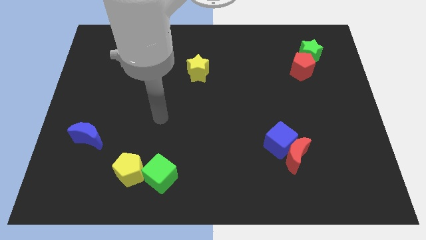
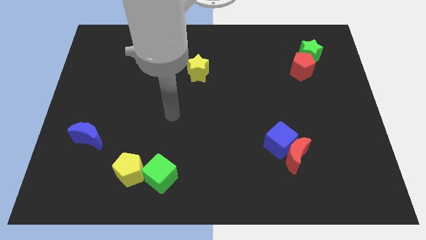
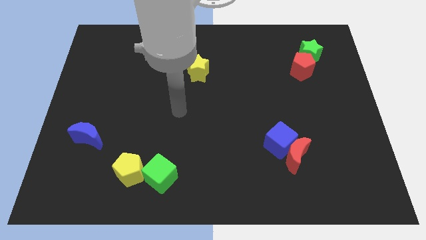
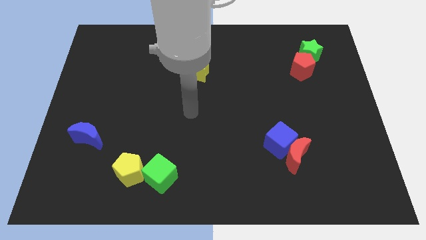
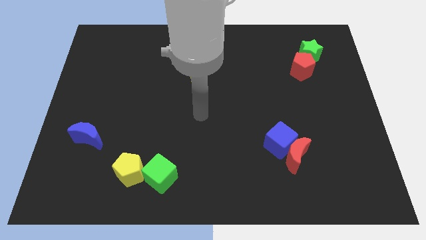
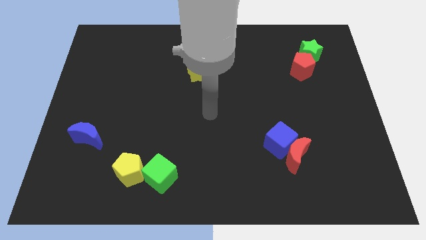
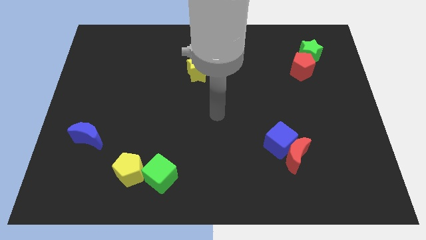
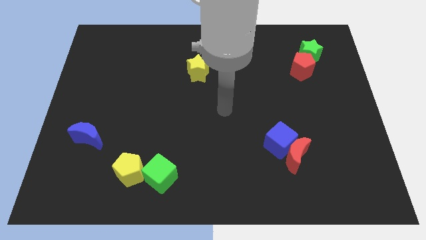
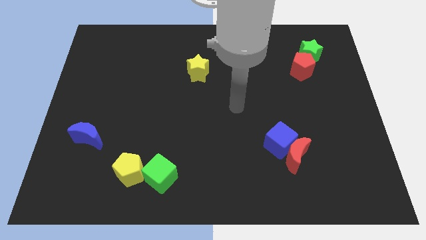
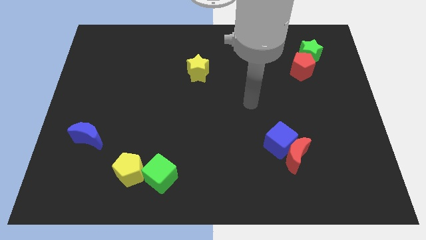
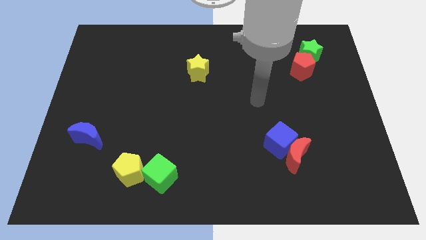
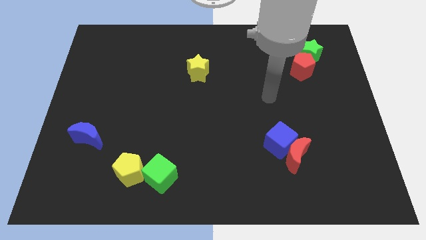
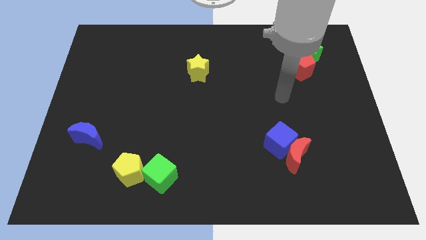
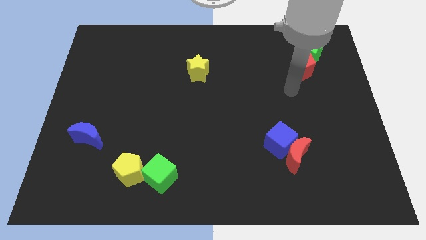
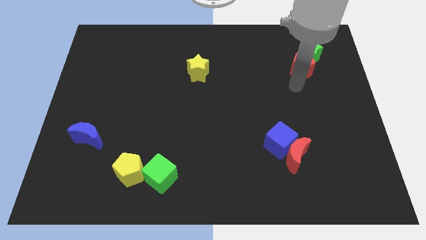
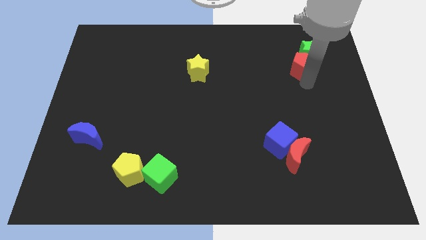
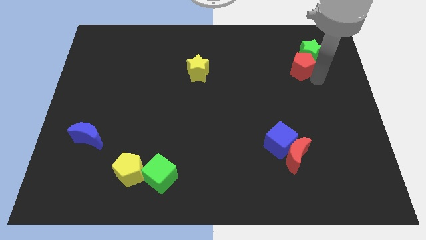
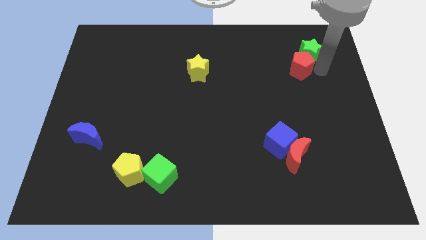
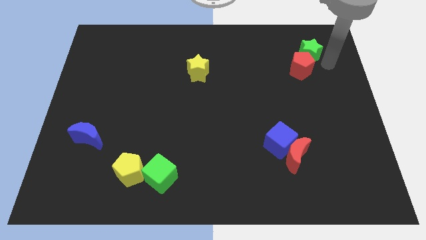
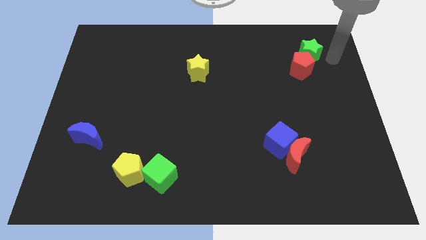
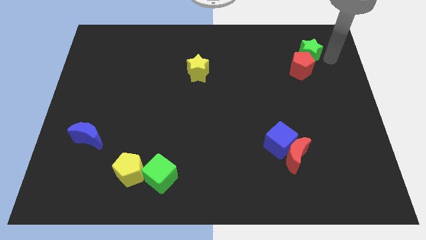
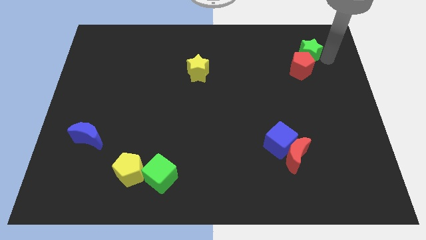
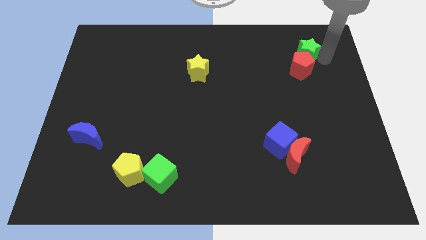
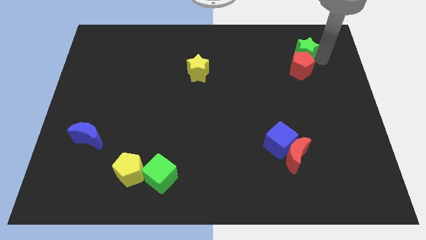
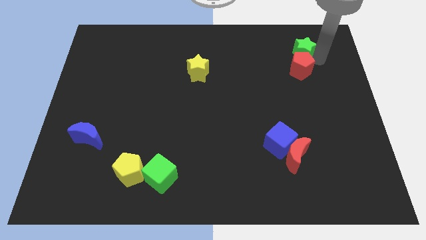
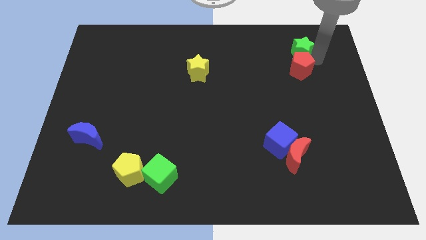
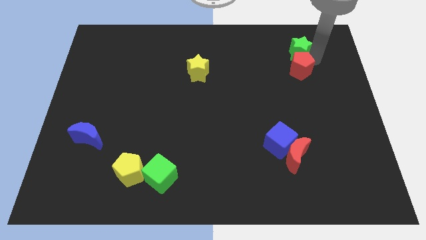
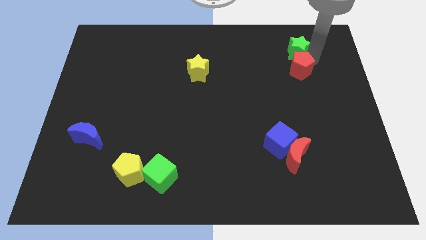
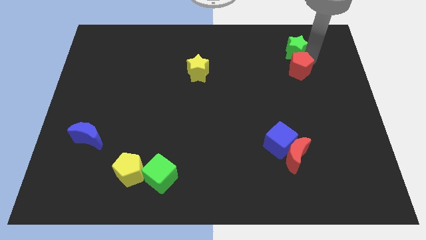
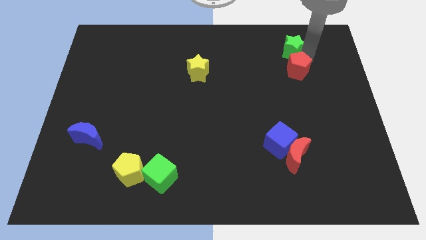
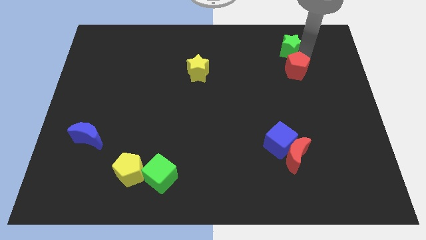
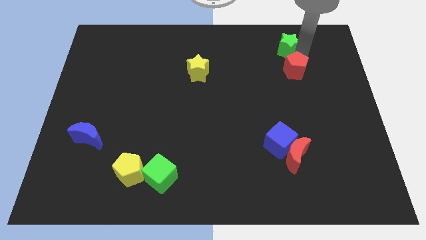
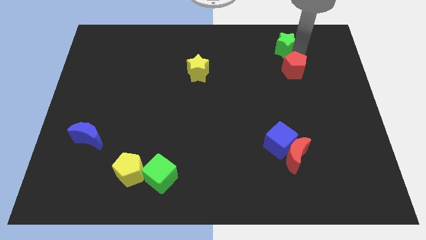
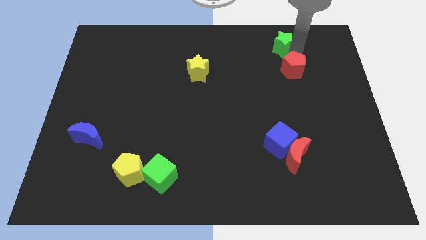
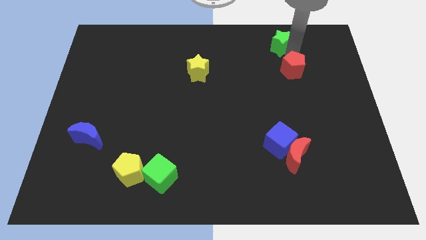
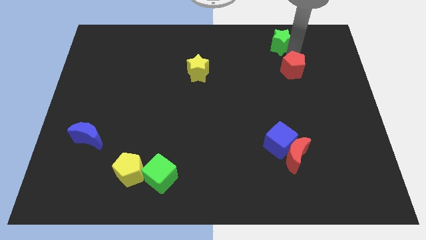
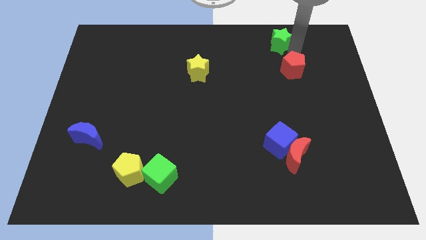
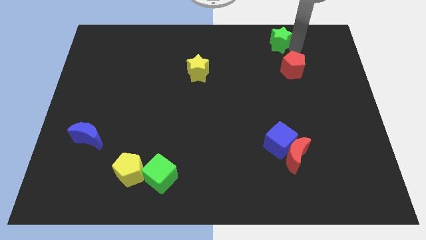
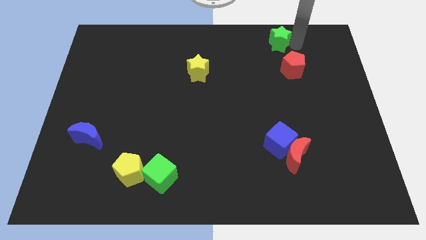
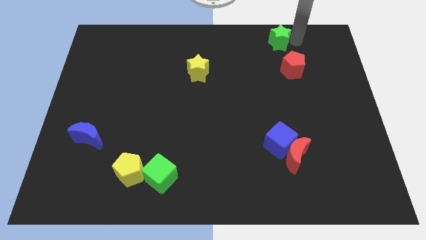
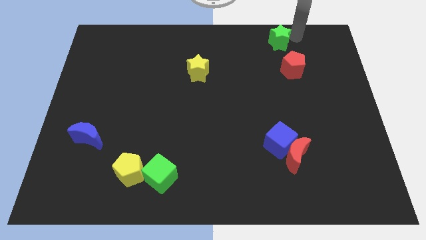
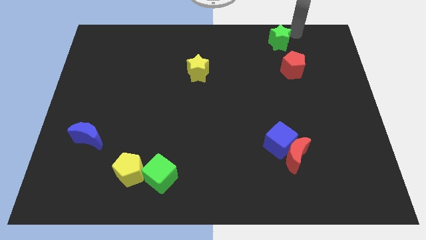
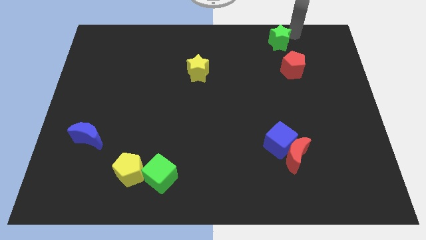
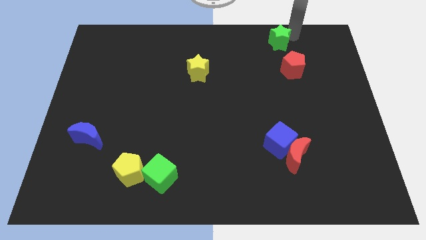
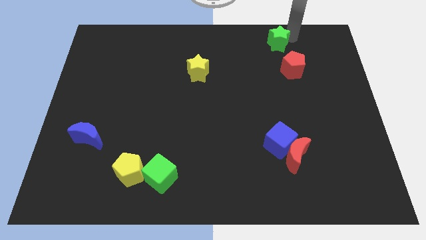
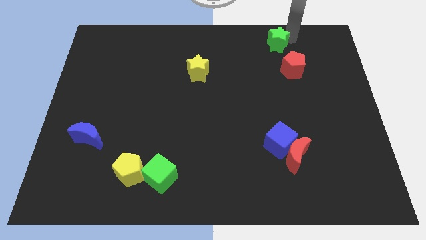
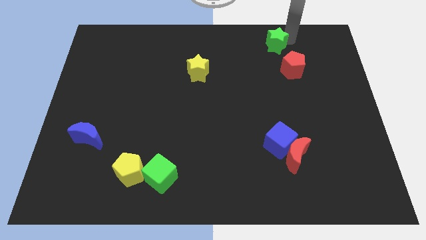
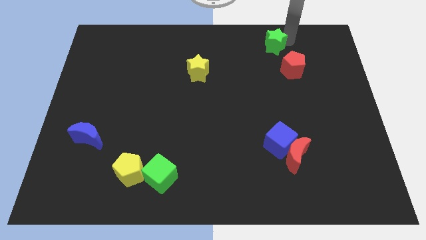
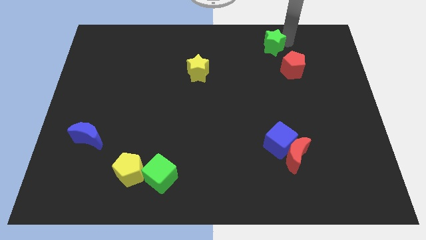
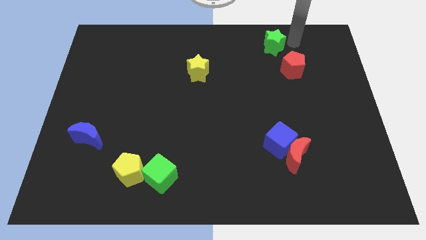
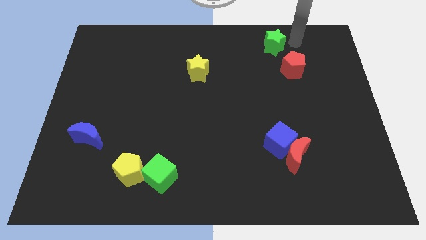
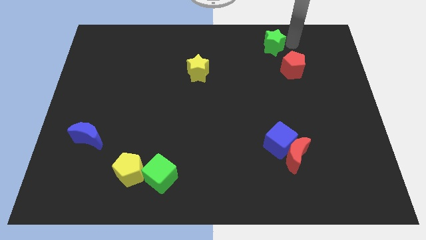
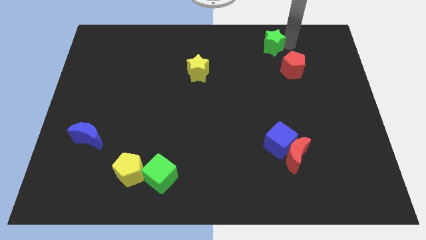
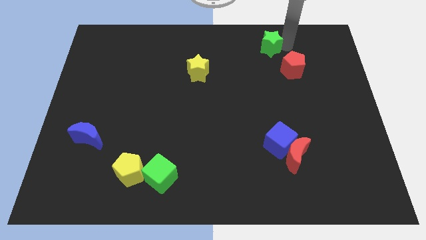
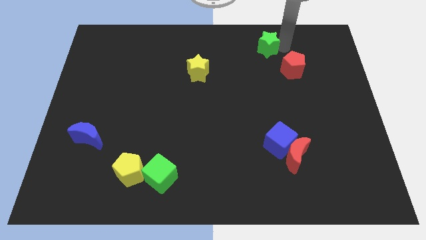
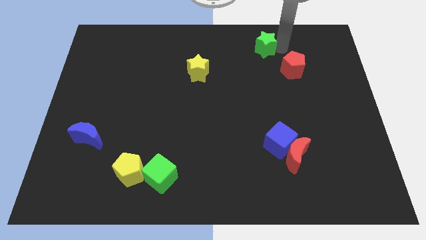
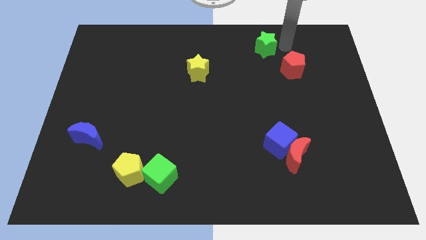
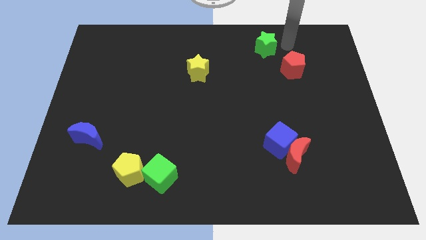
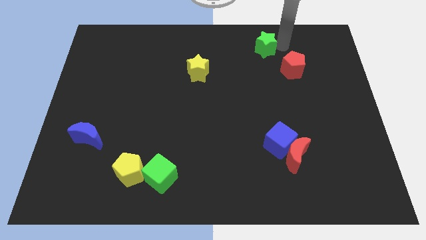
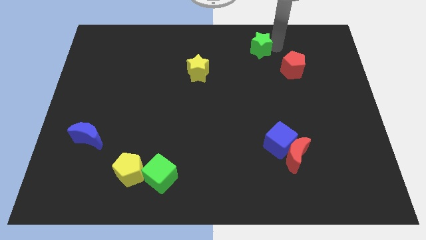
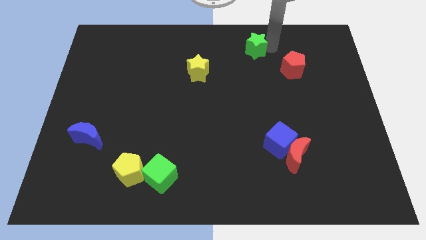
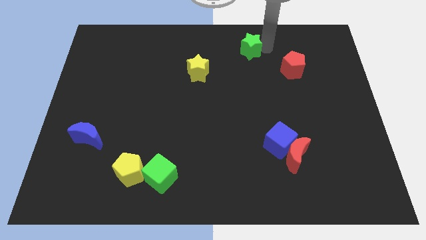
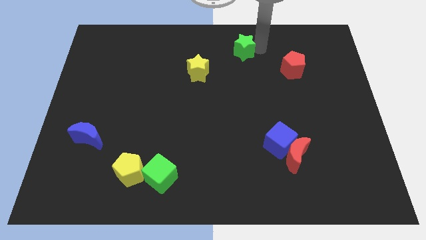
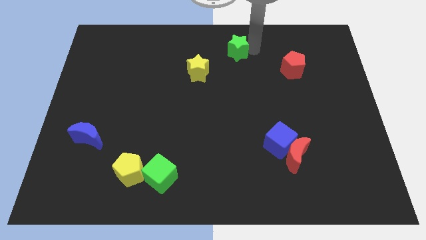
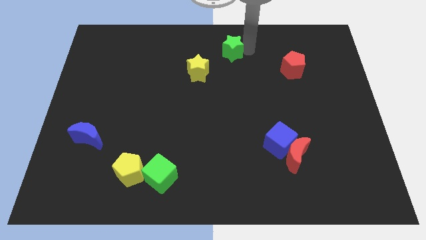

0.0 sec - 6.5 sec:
move the green star left

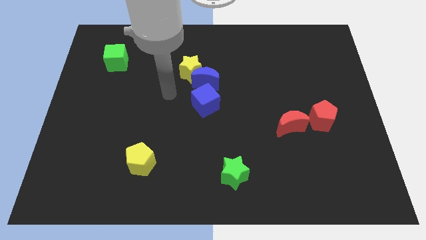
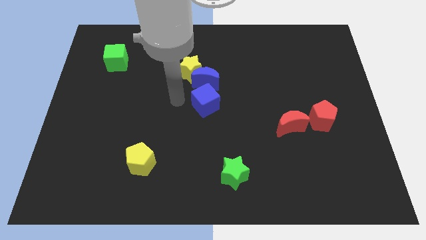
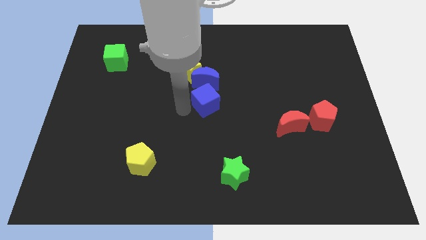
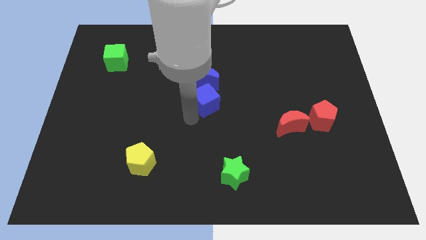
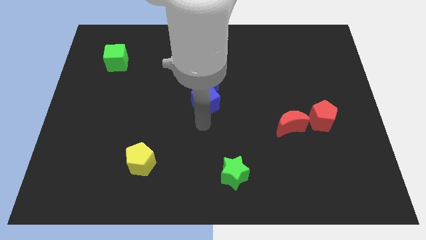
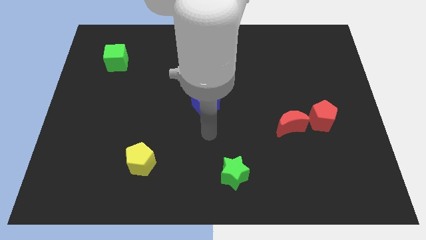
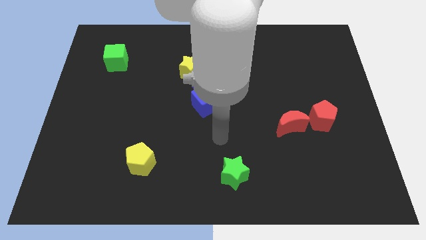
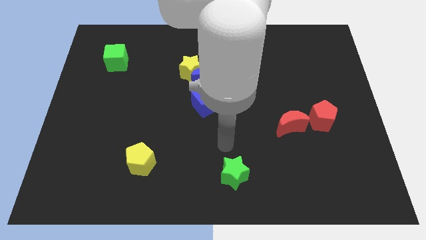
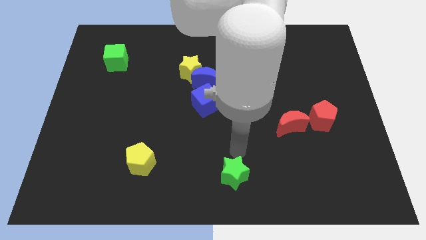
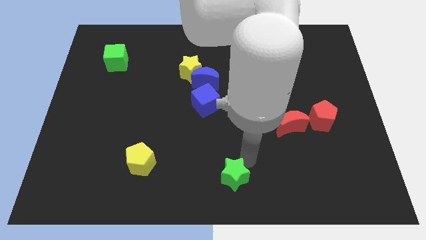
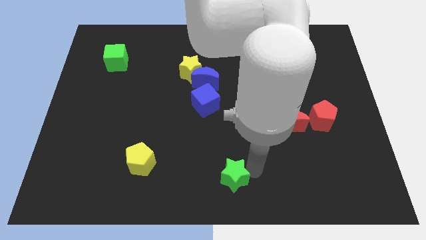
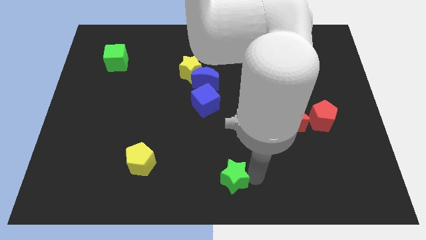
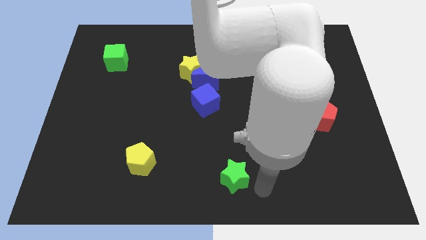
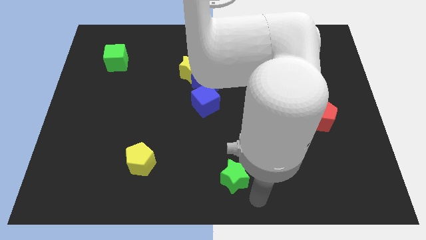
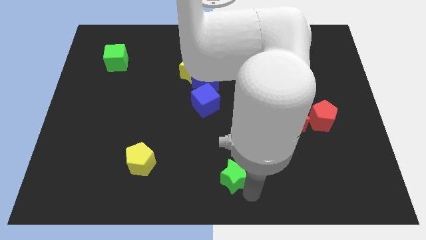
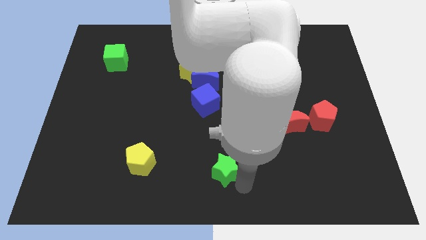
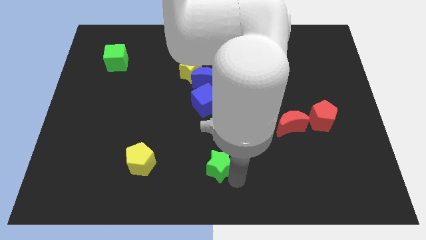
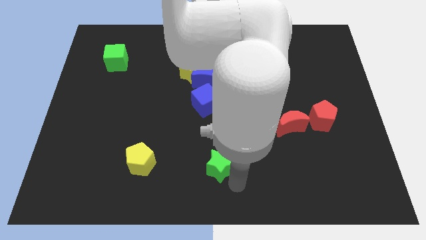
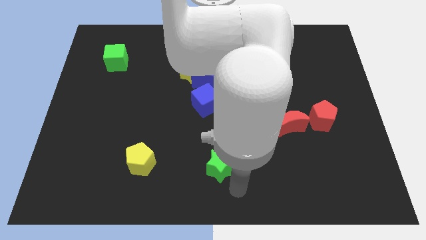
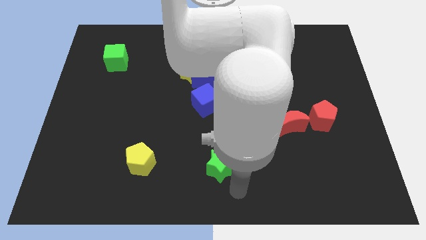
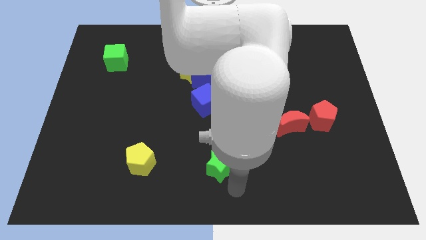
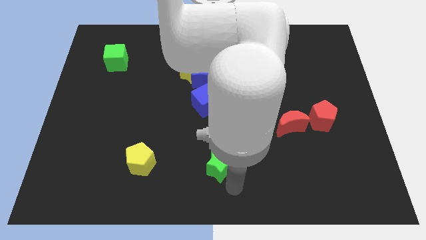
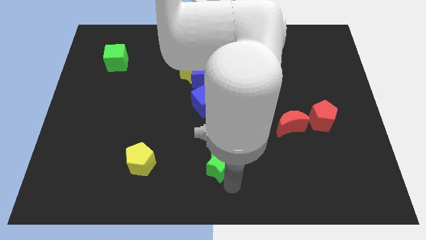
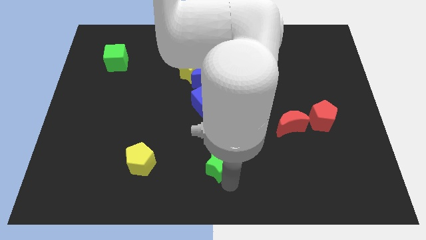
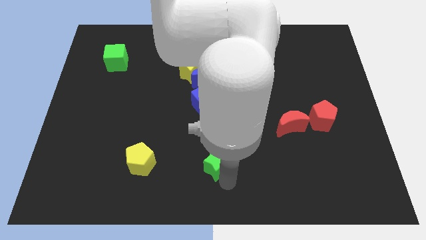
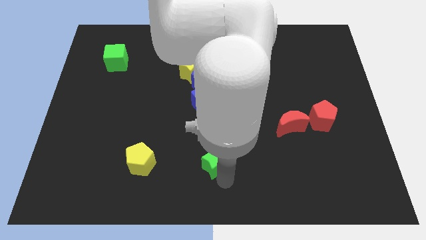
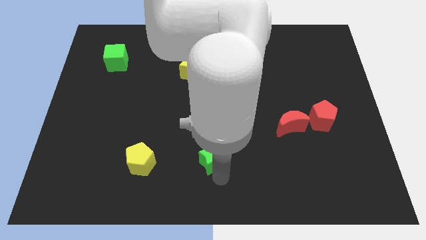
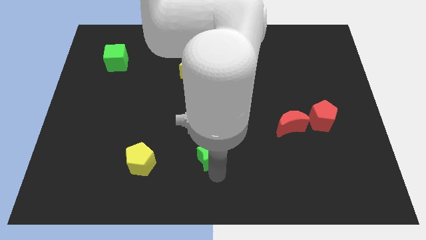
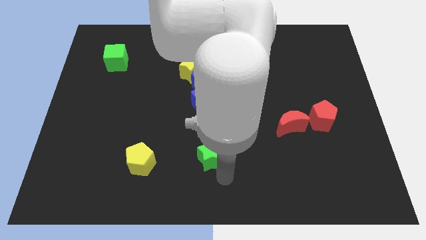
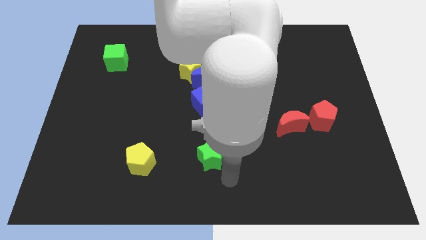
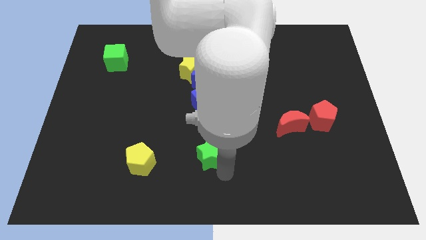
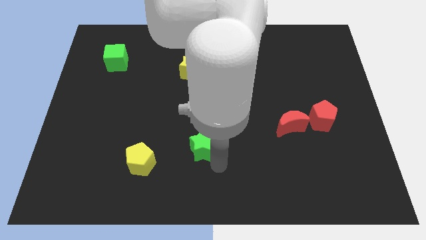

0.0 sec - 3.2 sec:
move the green star up and to the left diagonally slightly
